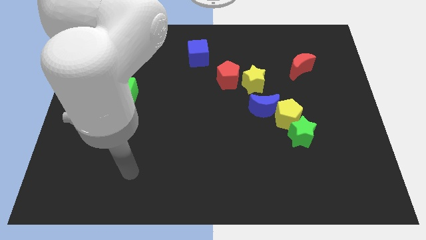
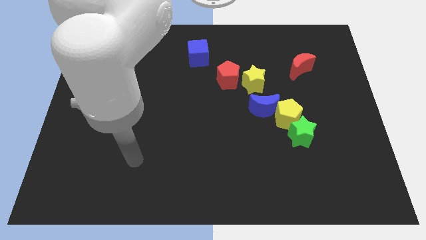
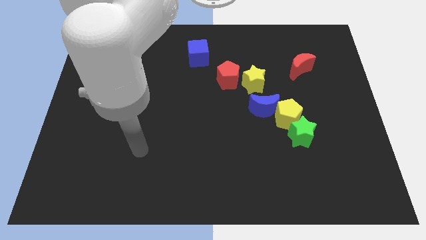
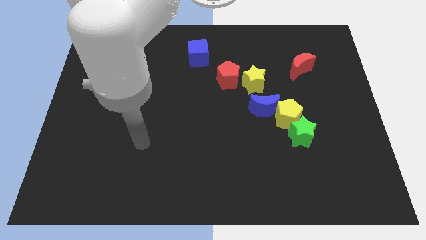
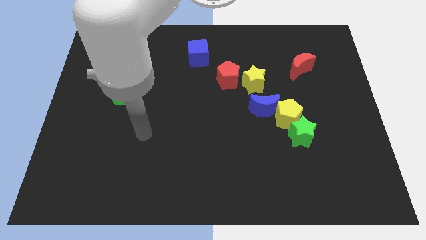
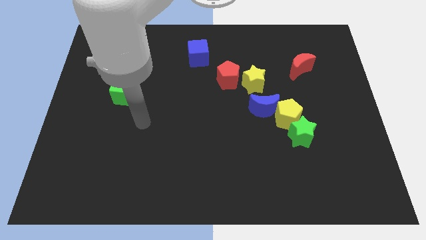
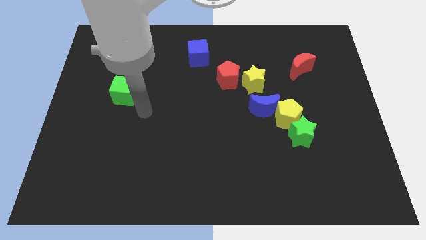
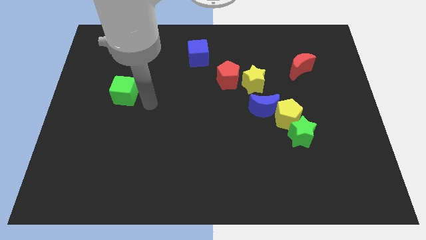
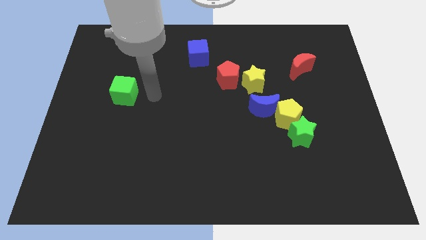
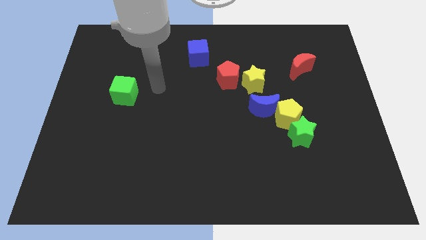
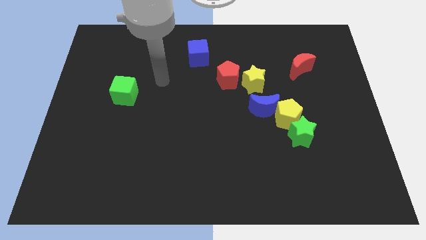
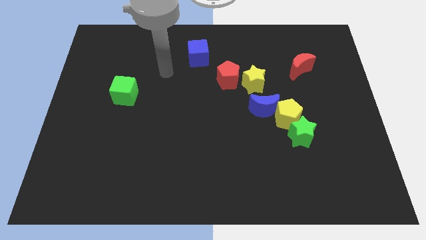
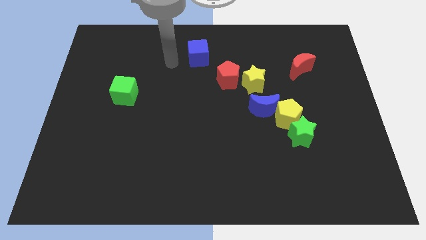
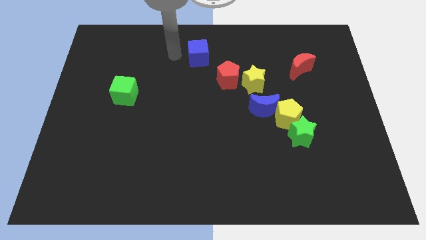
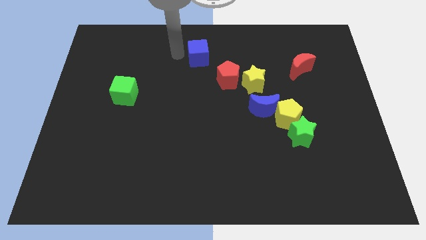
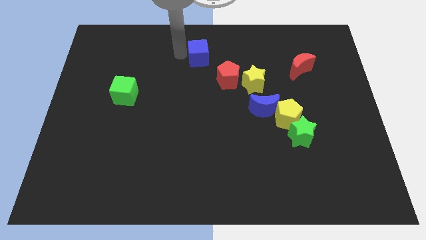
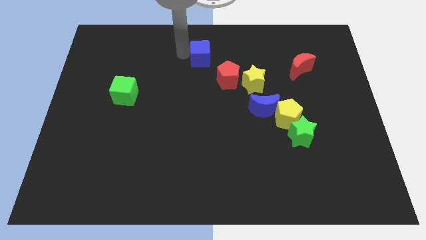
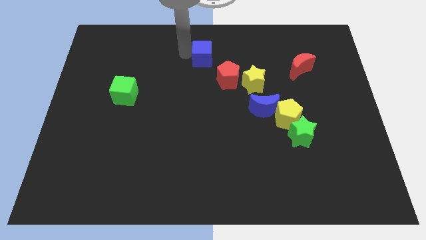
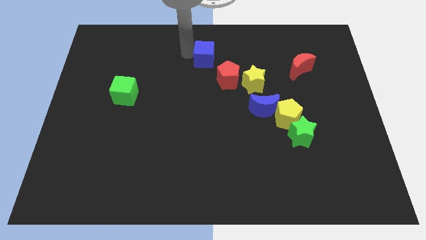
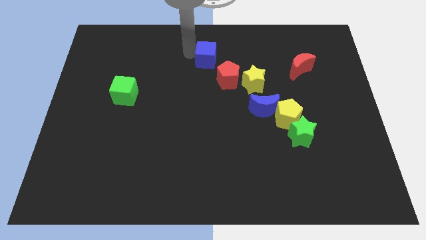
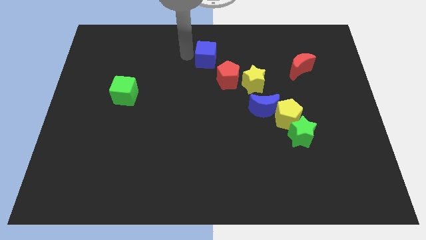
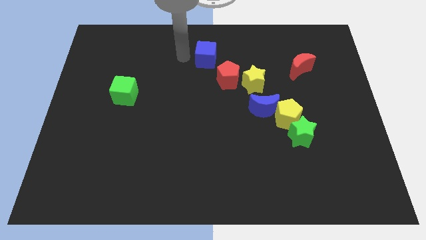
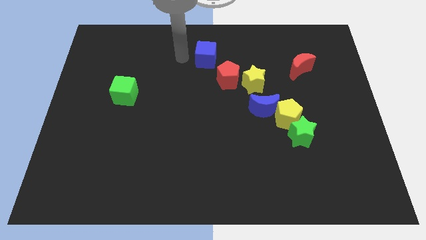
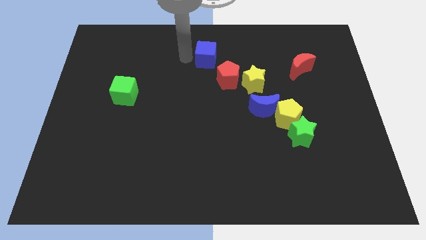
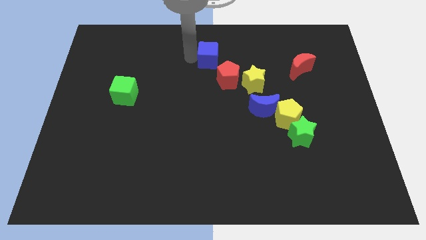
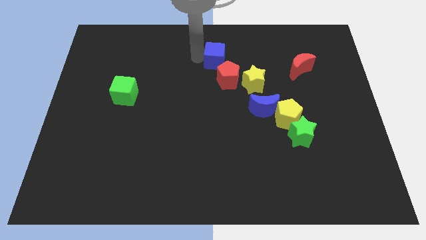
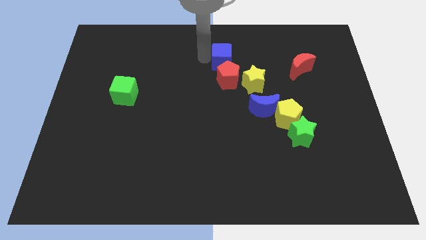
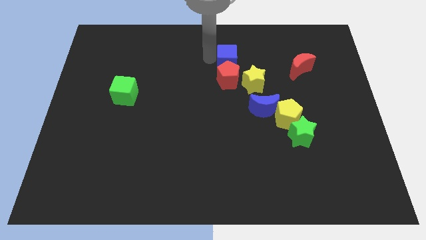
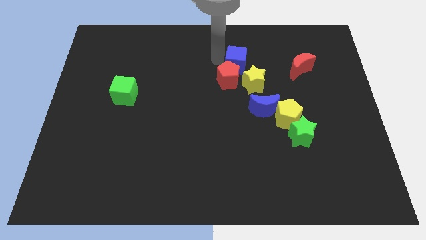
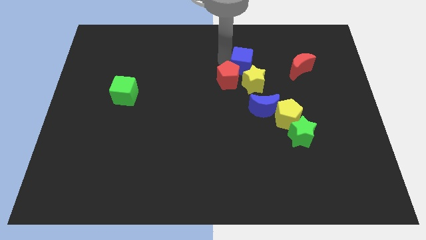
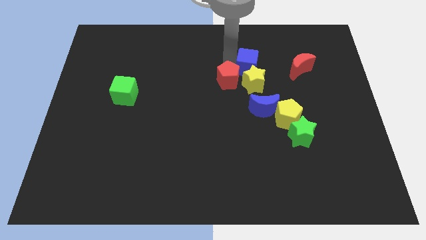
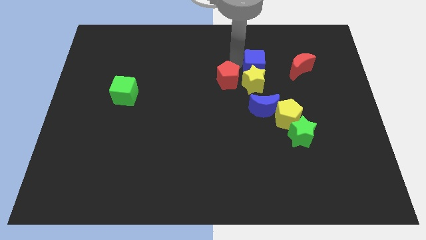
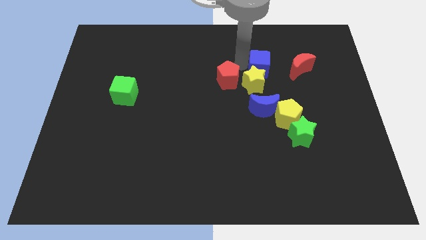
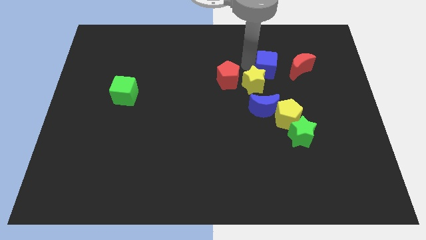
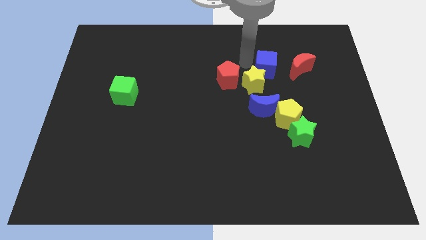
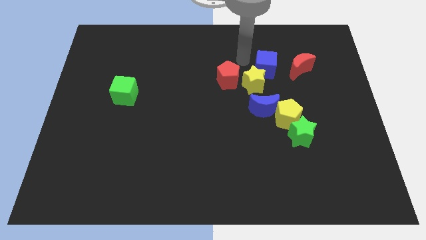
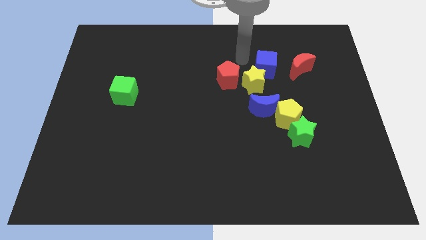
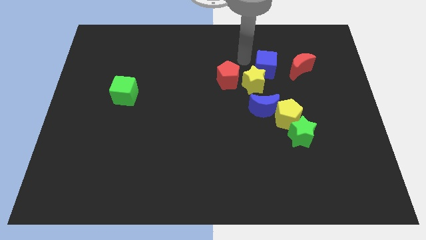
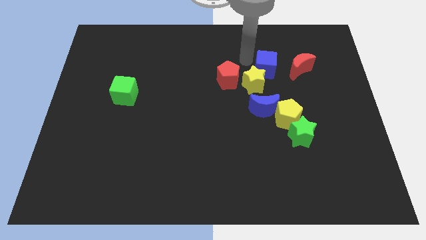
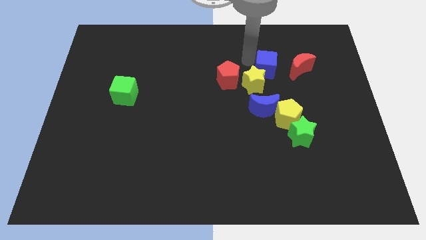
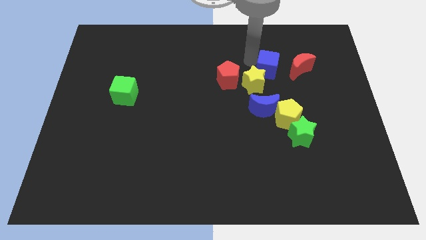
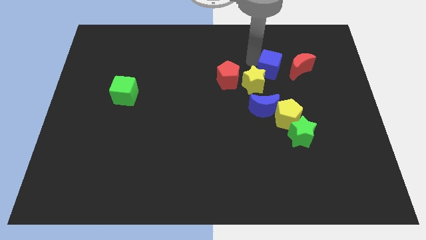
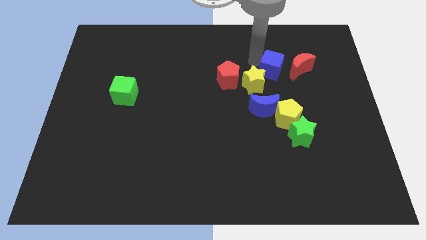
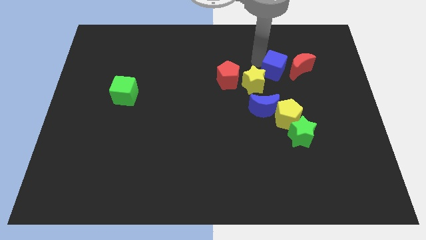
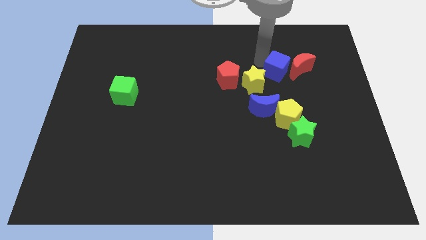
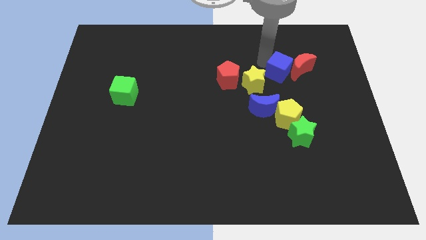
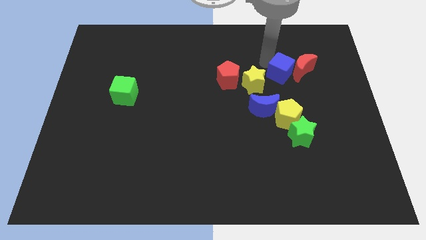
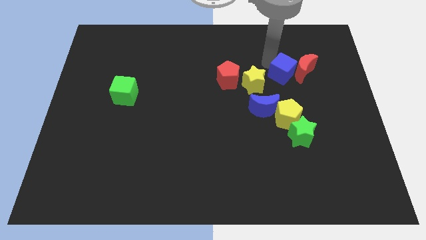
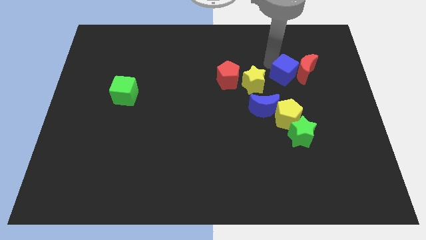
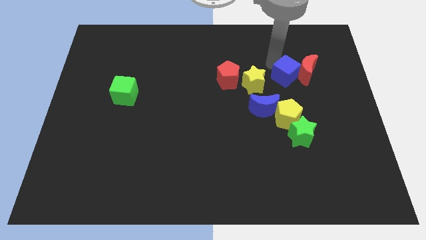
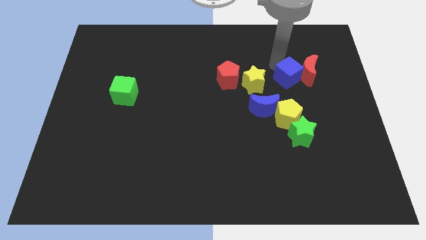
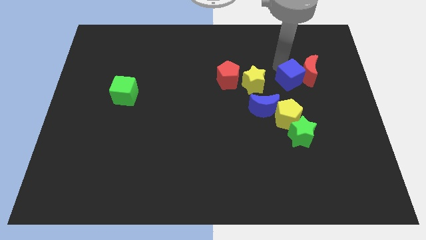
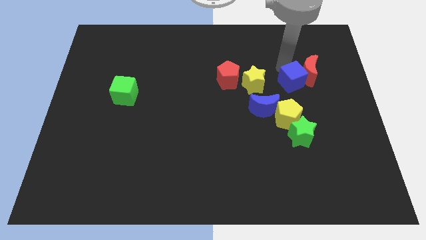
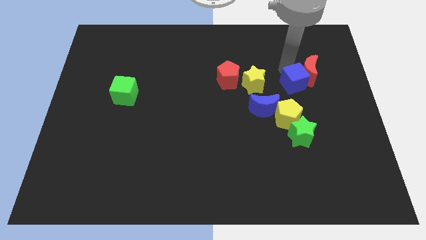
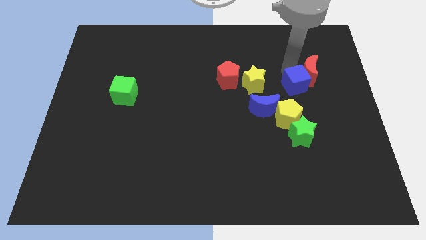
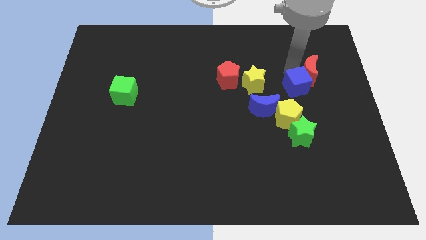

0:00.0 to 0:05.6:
slide the blue cube to the top right side of the yellow pentagon

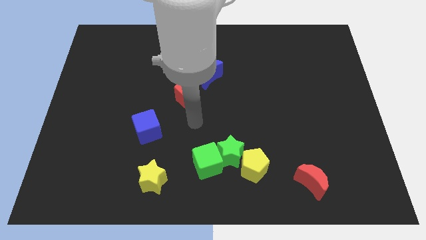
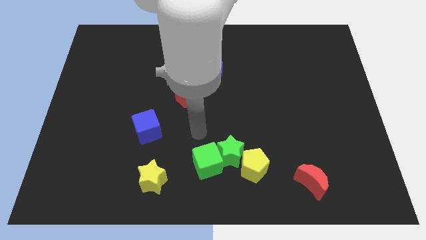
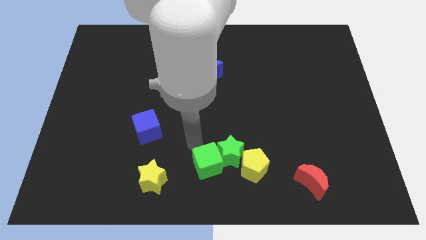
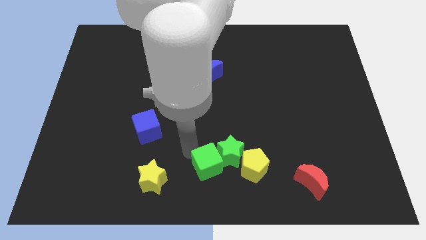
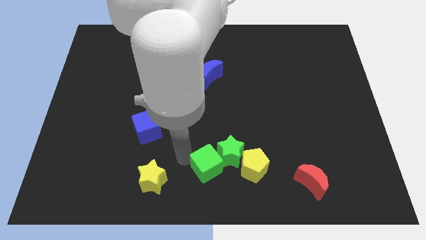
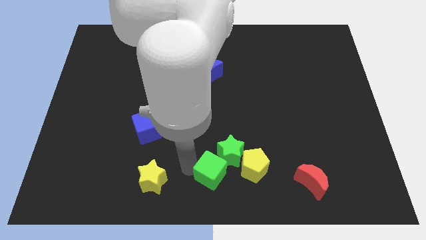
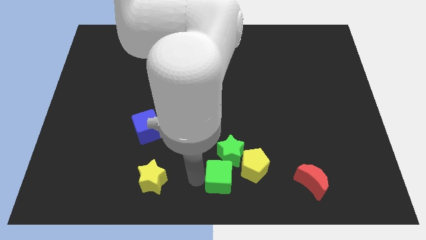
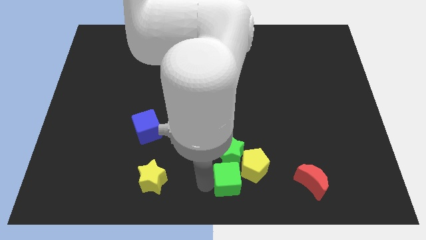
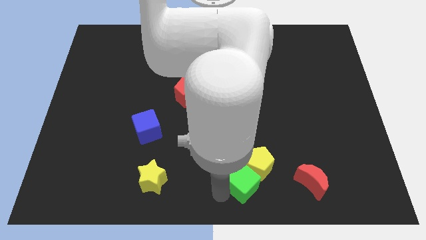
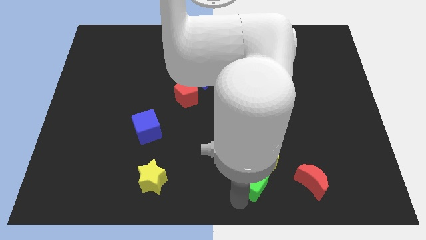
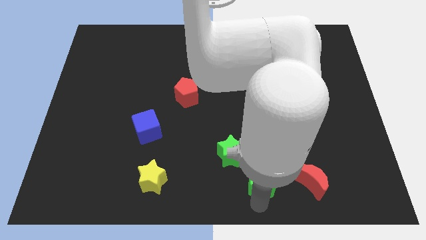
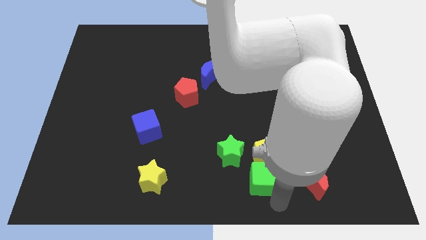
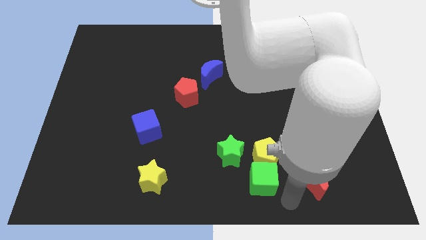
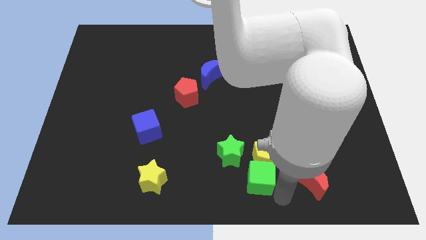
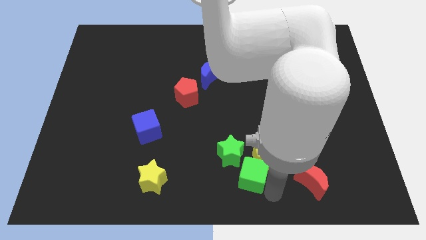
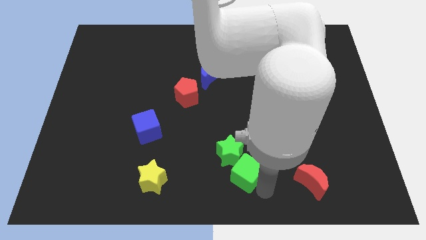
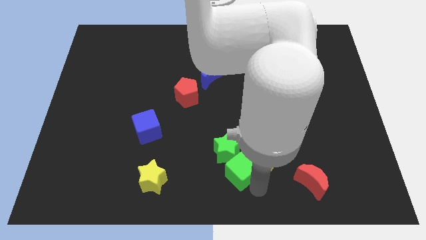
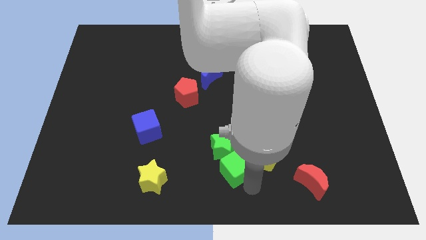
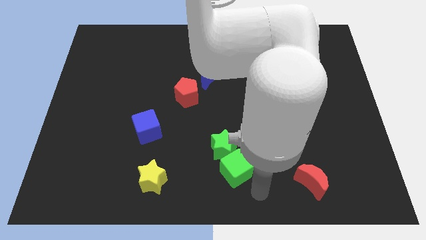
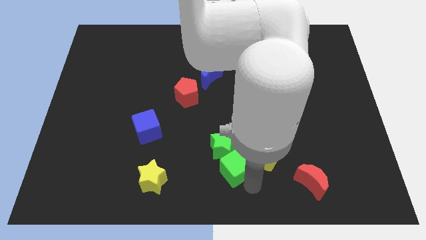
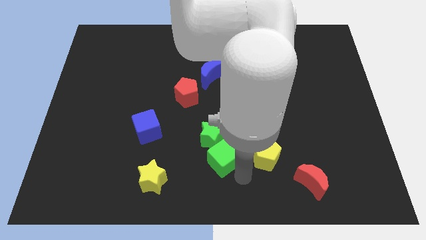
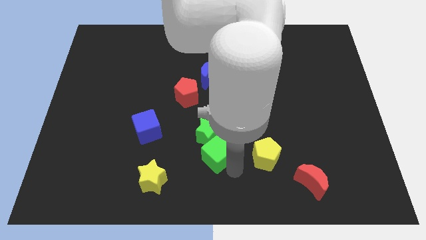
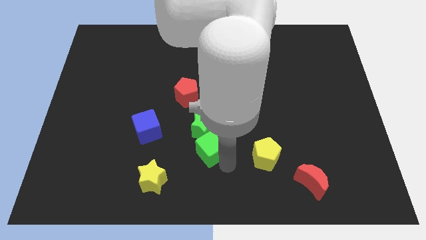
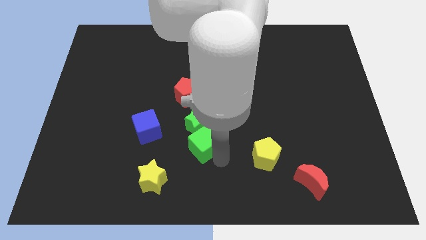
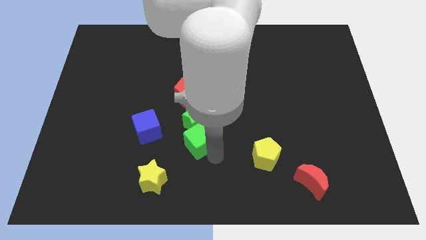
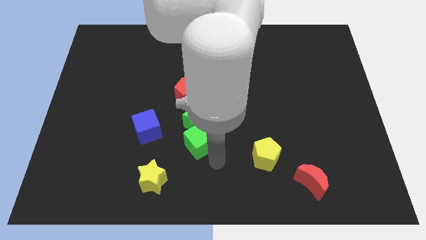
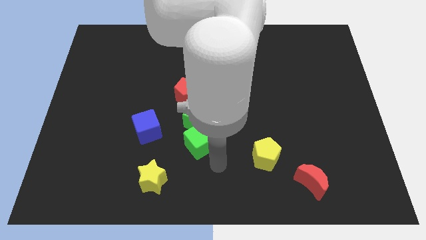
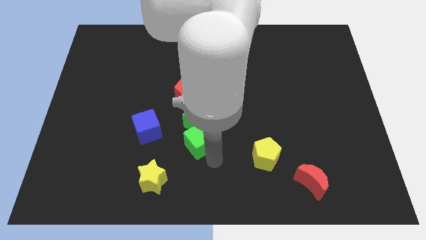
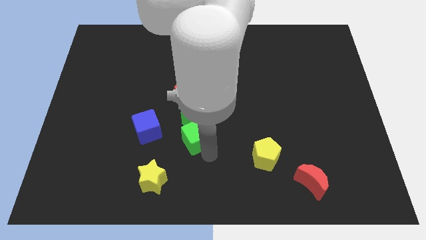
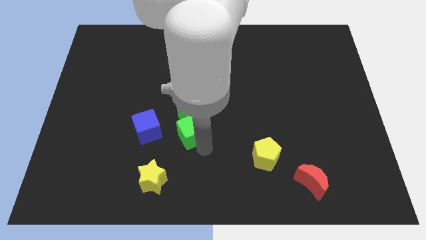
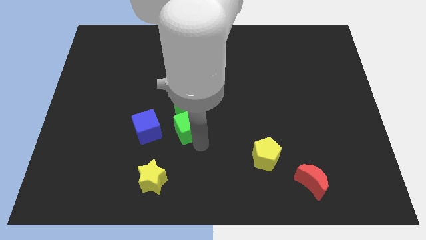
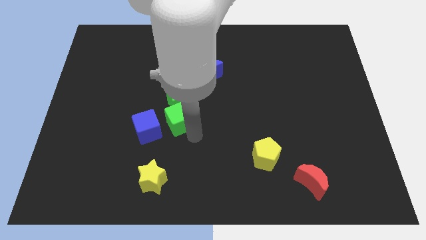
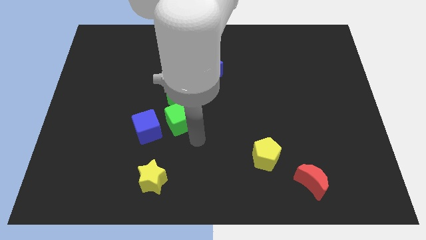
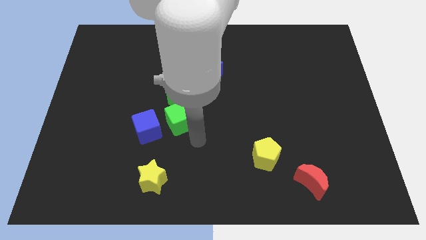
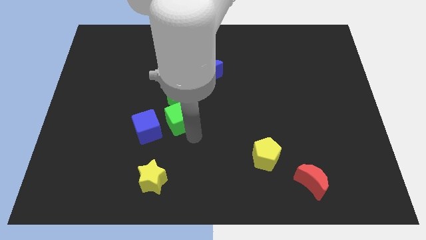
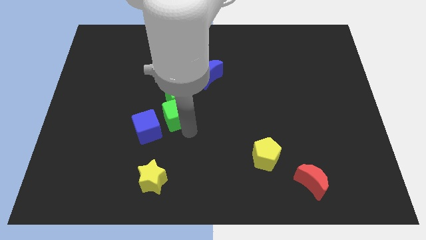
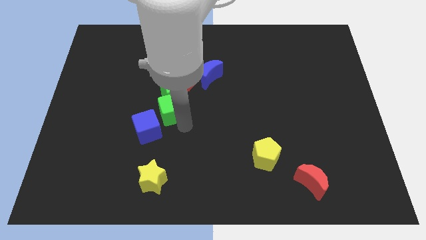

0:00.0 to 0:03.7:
put the green cube above the blue cube
